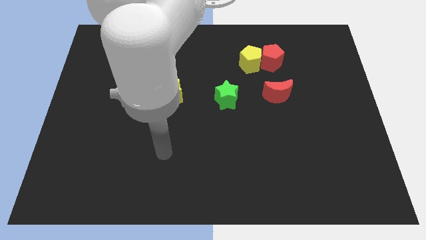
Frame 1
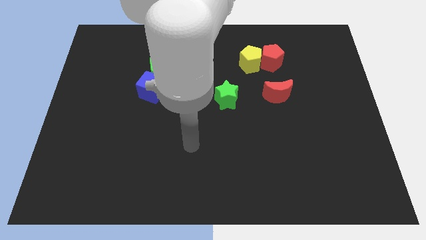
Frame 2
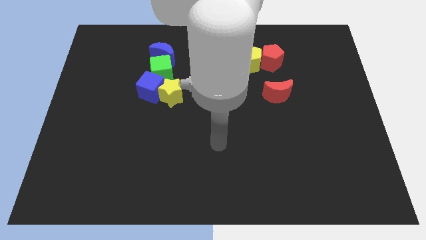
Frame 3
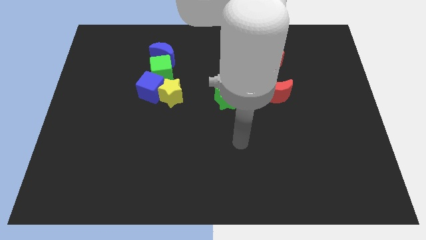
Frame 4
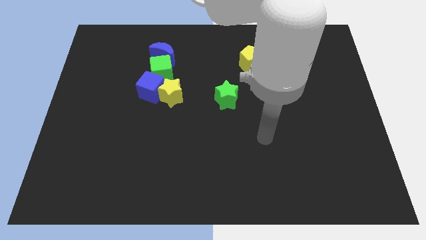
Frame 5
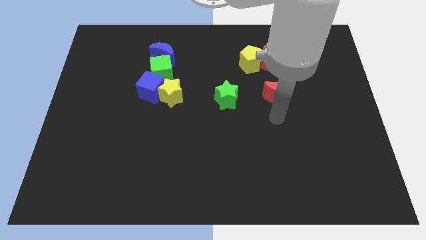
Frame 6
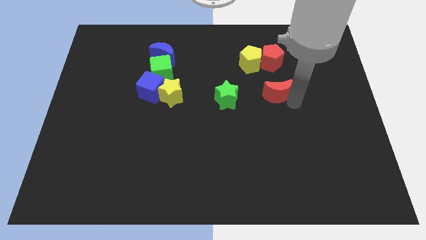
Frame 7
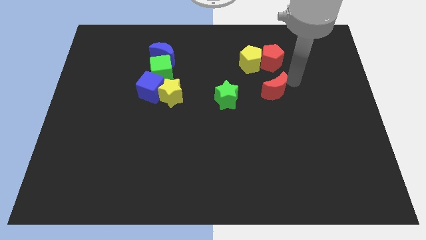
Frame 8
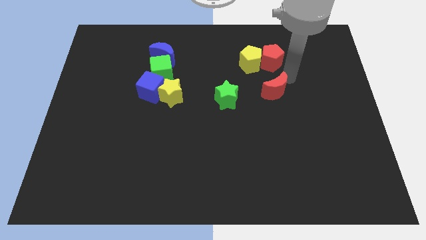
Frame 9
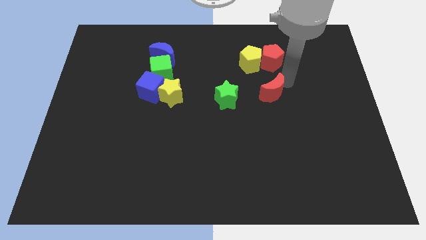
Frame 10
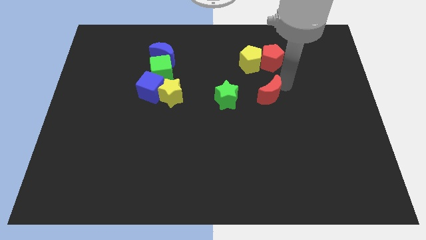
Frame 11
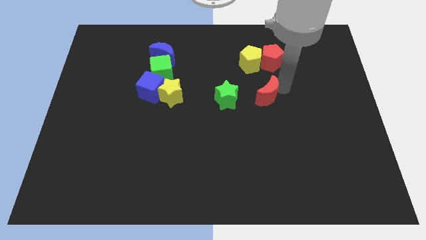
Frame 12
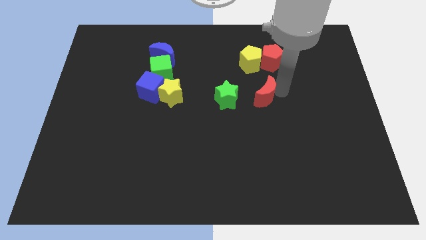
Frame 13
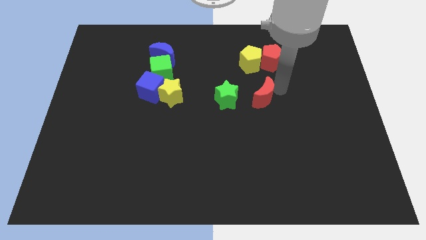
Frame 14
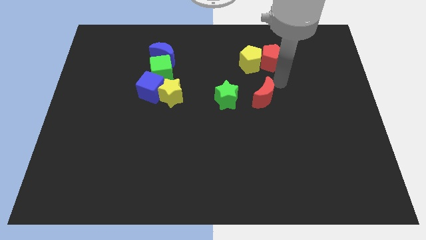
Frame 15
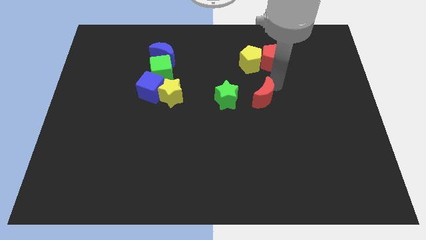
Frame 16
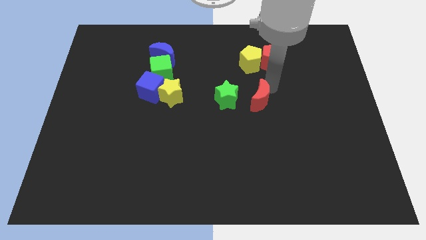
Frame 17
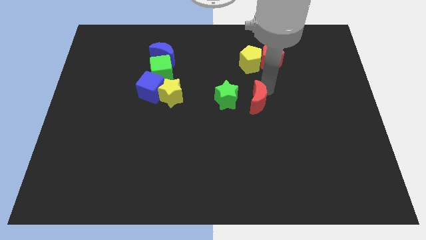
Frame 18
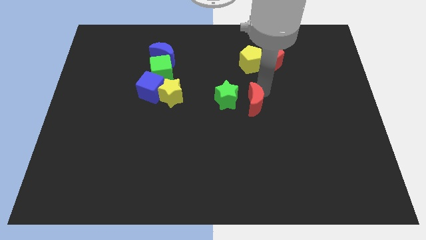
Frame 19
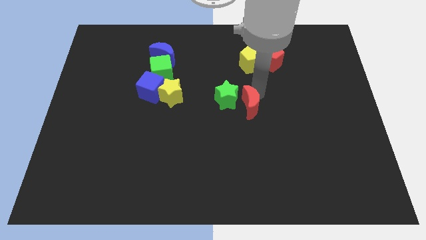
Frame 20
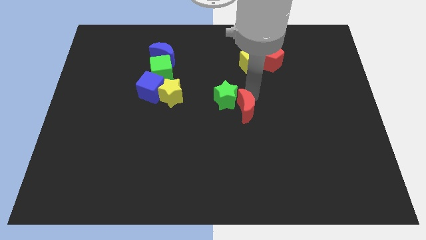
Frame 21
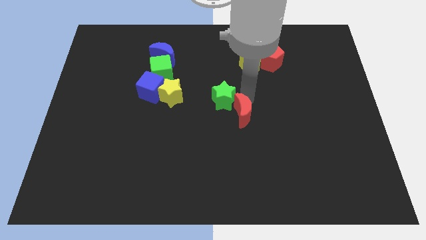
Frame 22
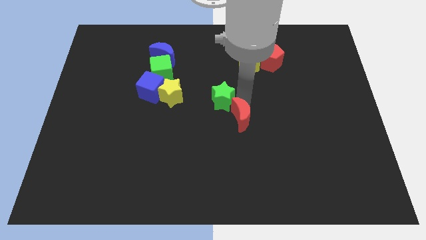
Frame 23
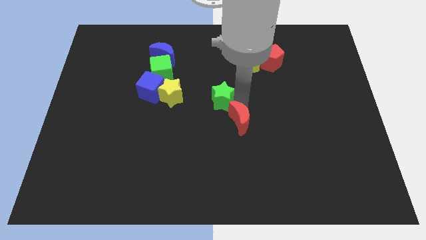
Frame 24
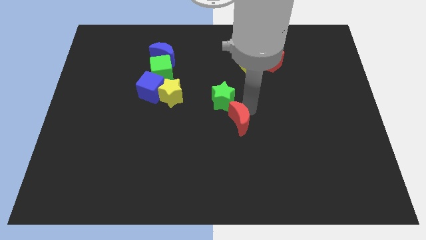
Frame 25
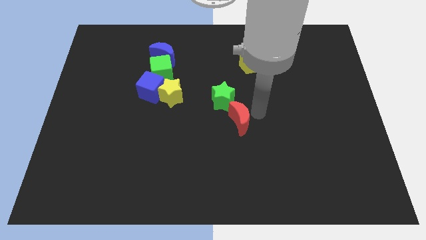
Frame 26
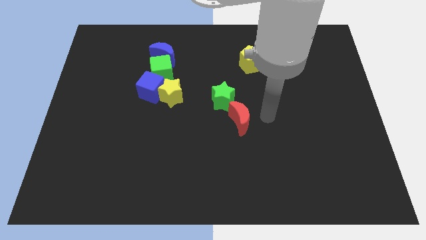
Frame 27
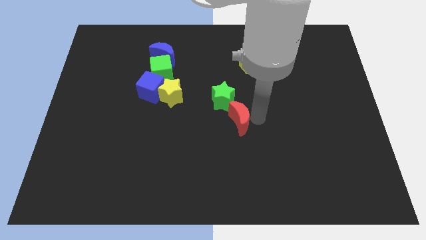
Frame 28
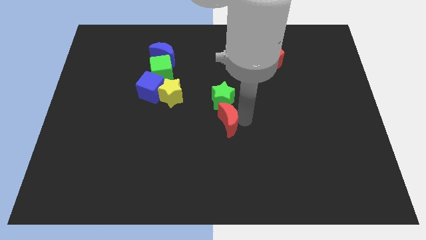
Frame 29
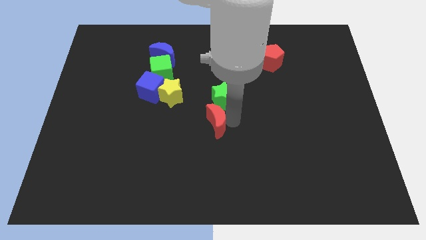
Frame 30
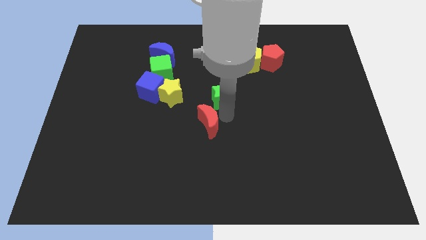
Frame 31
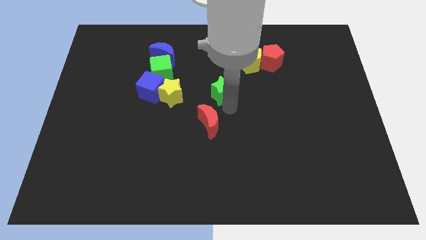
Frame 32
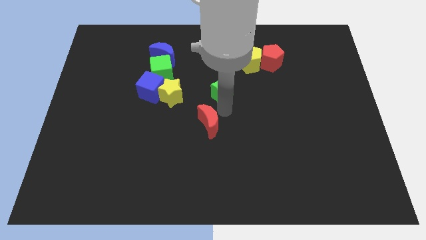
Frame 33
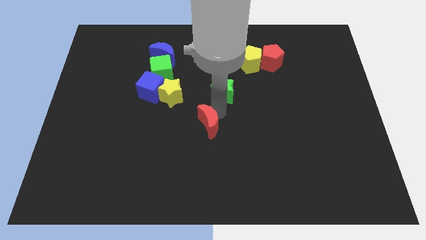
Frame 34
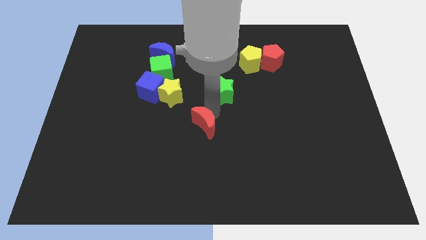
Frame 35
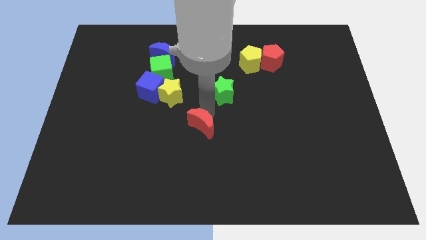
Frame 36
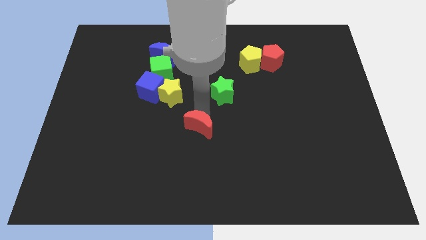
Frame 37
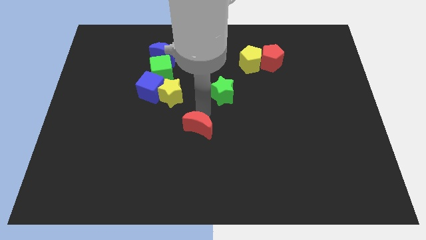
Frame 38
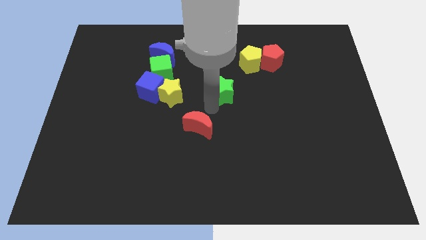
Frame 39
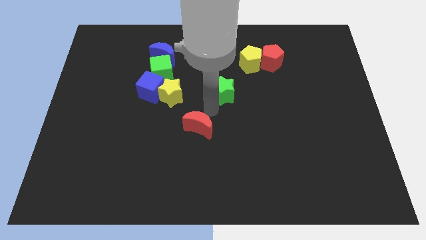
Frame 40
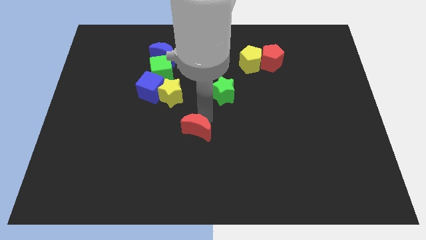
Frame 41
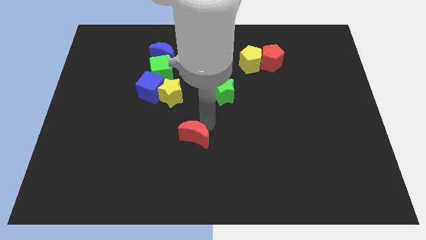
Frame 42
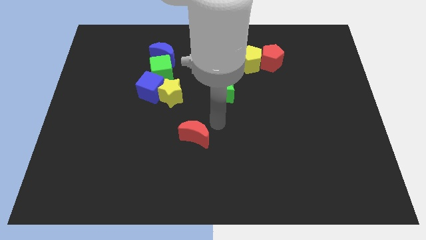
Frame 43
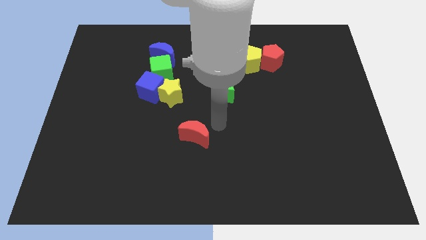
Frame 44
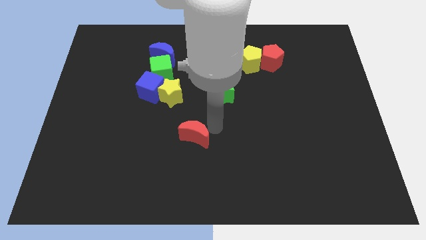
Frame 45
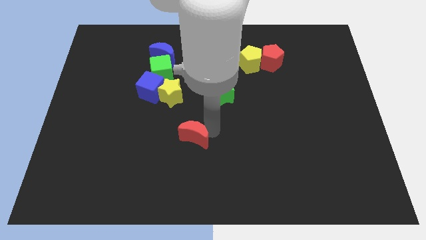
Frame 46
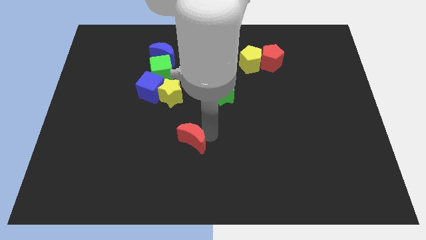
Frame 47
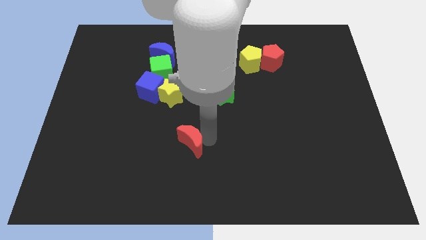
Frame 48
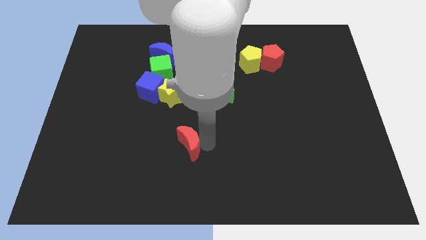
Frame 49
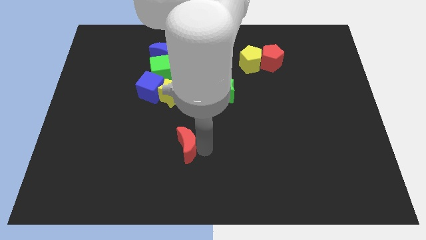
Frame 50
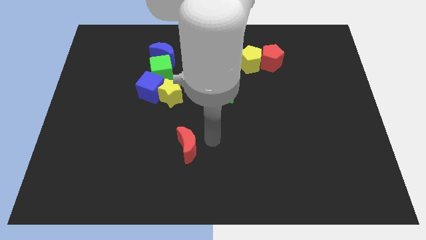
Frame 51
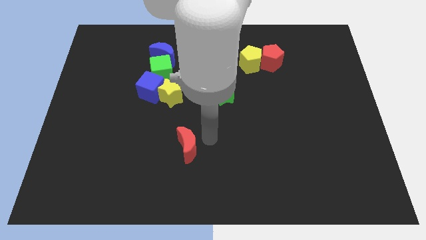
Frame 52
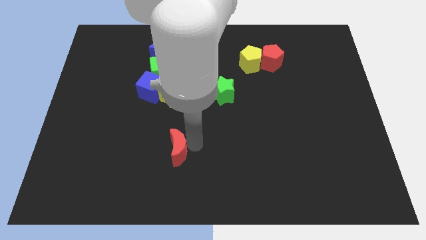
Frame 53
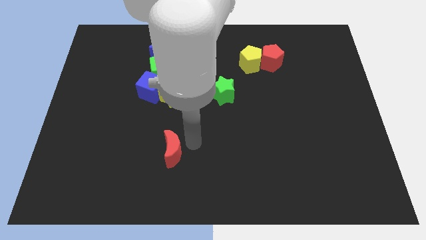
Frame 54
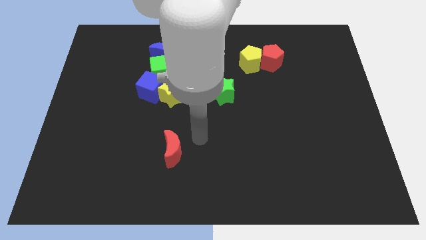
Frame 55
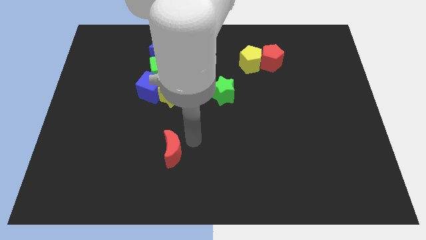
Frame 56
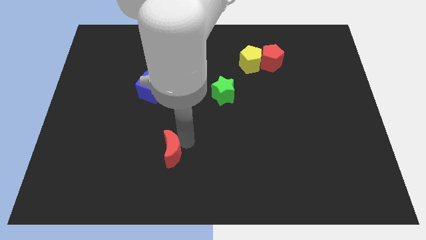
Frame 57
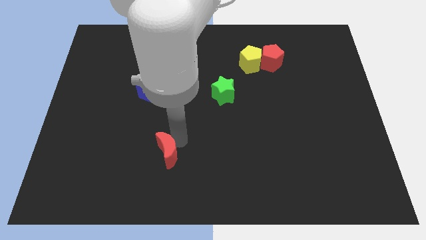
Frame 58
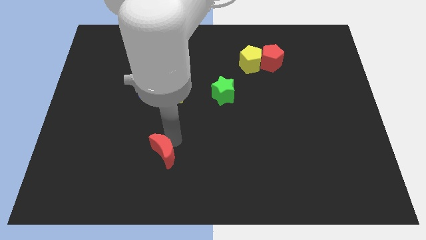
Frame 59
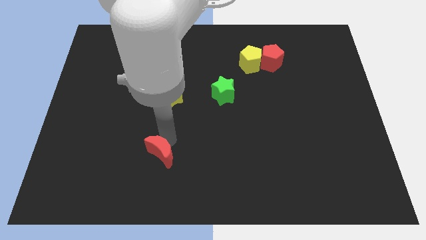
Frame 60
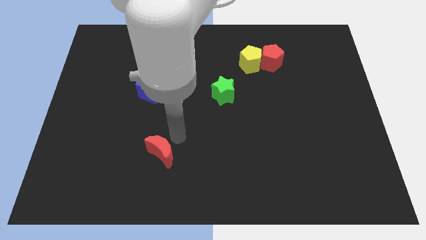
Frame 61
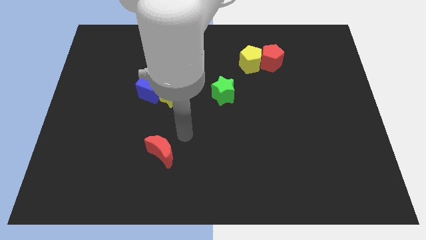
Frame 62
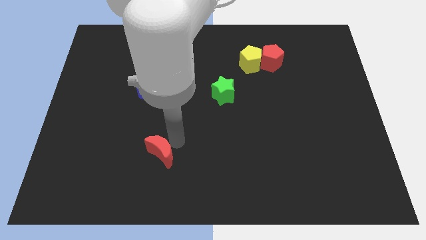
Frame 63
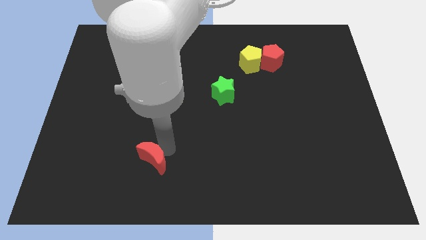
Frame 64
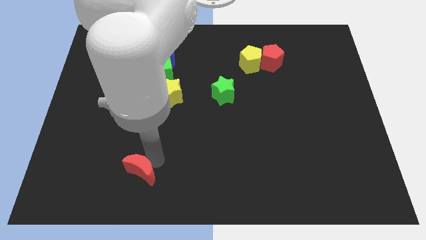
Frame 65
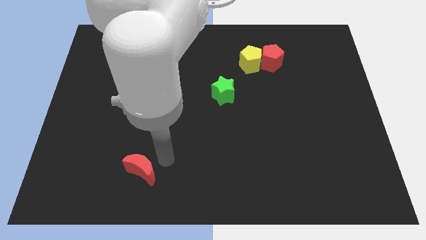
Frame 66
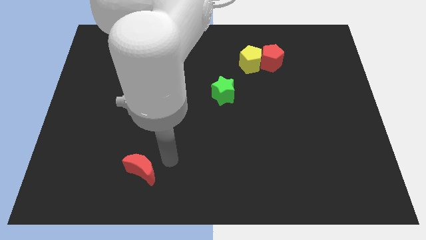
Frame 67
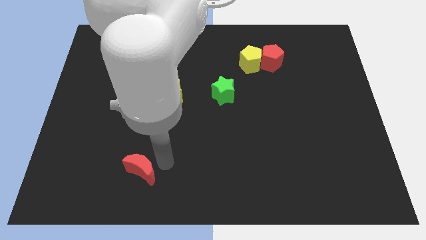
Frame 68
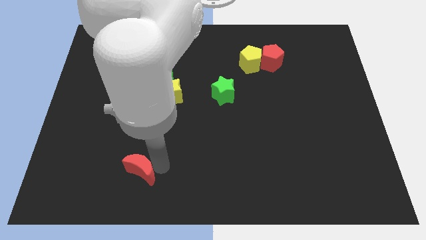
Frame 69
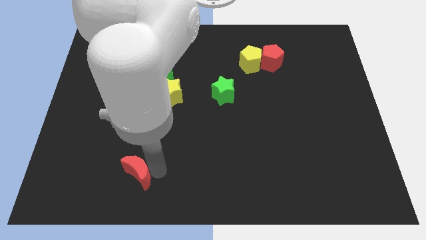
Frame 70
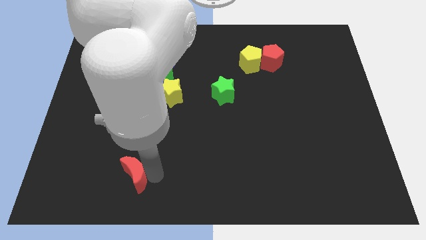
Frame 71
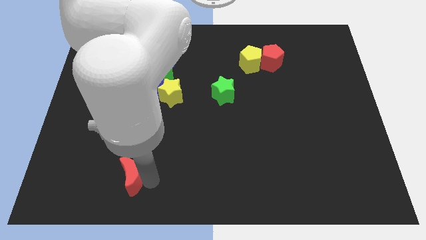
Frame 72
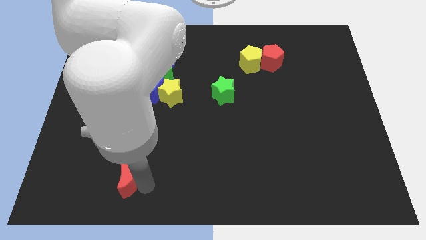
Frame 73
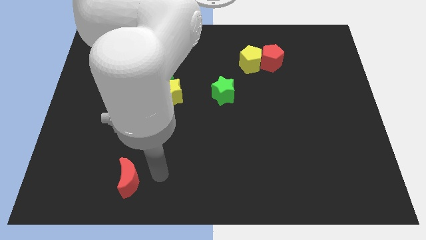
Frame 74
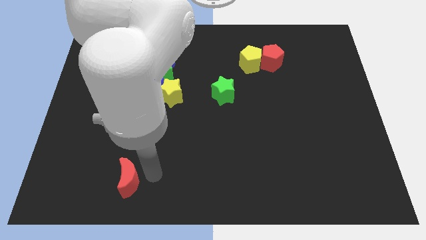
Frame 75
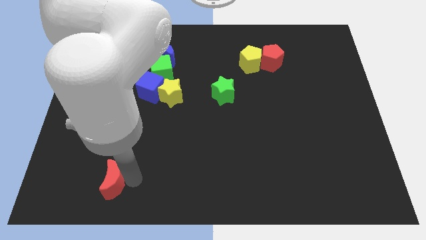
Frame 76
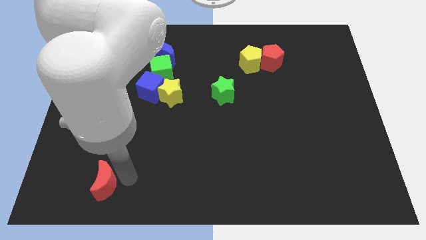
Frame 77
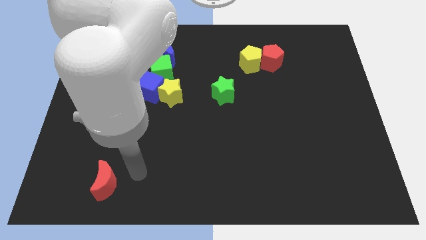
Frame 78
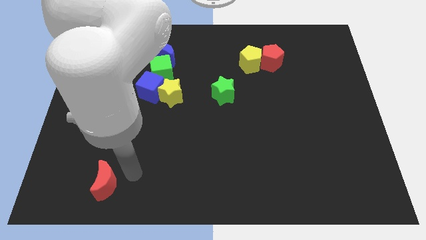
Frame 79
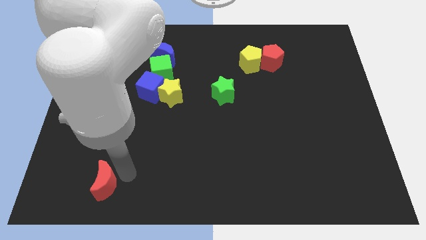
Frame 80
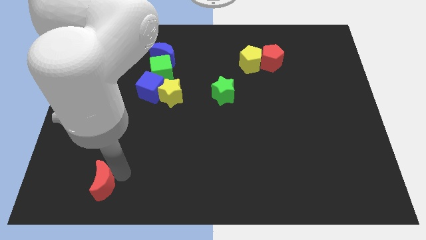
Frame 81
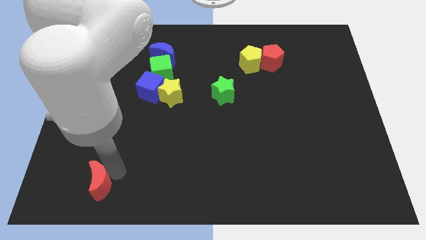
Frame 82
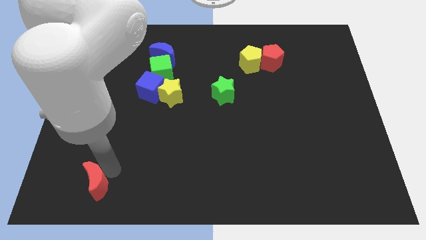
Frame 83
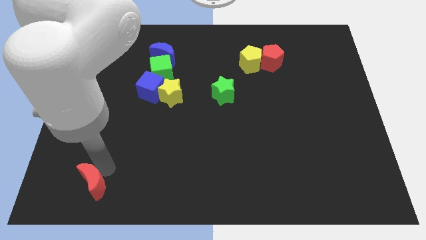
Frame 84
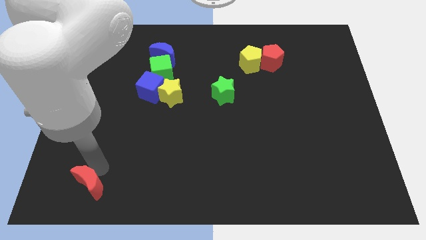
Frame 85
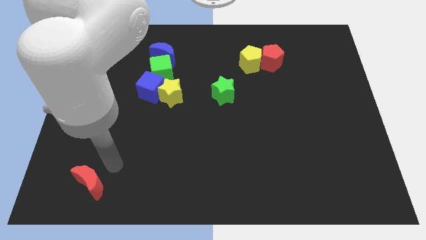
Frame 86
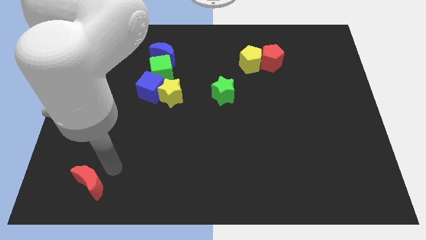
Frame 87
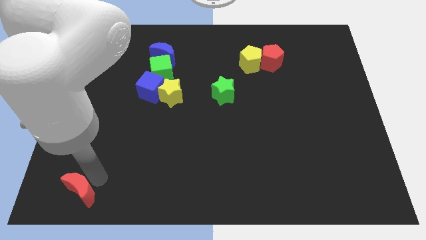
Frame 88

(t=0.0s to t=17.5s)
move the red moon to the lower left corner
